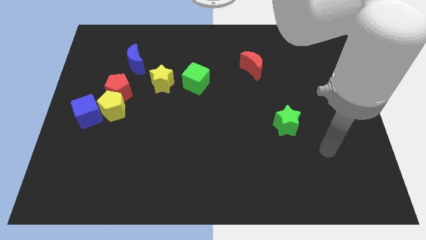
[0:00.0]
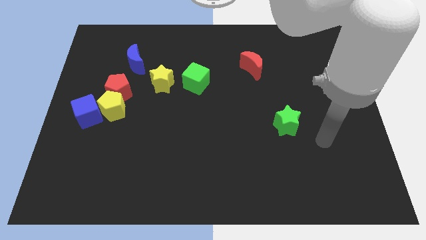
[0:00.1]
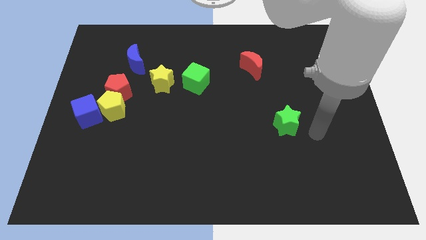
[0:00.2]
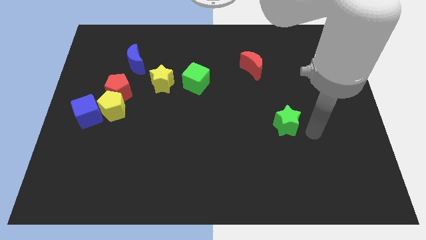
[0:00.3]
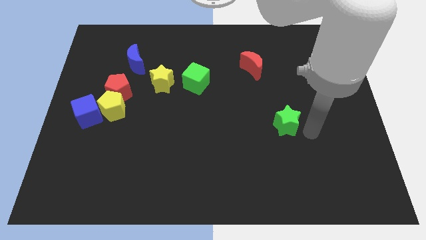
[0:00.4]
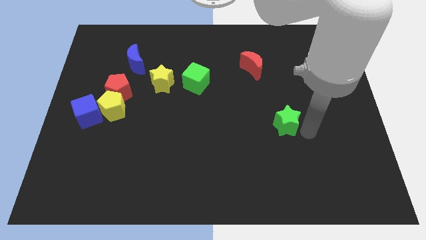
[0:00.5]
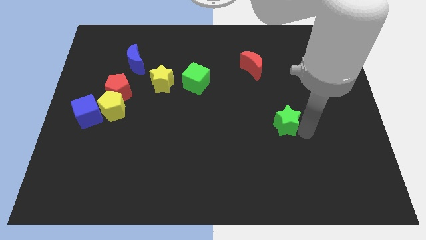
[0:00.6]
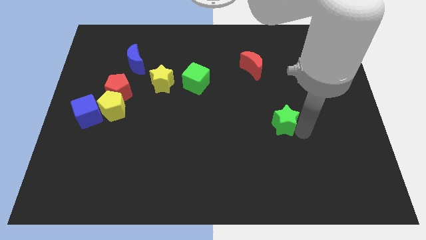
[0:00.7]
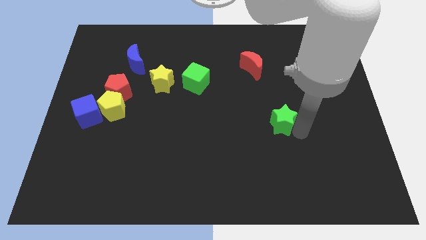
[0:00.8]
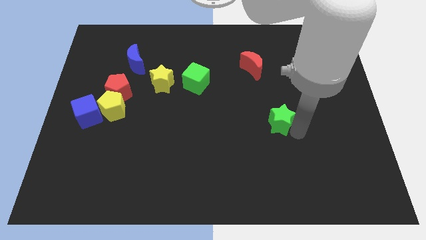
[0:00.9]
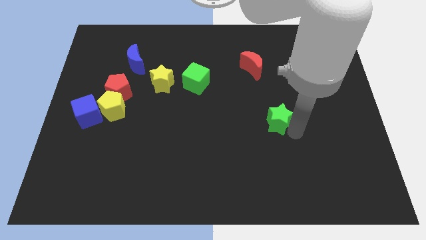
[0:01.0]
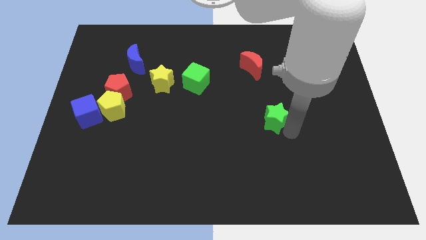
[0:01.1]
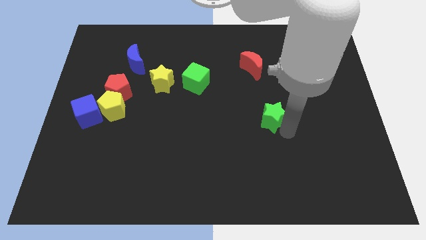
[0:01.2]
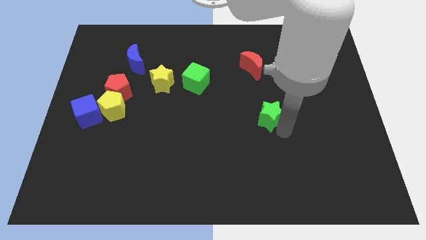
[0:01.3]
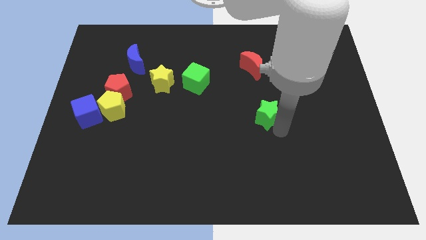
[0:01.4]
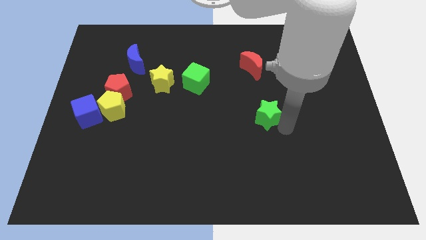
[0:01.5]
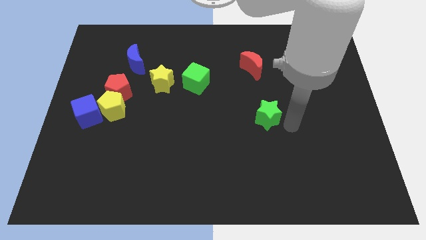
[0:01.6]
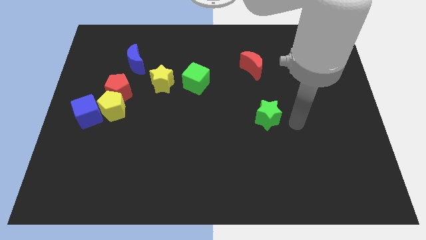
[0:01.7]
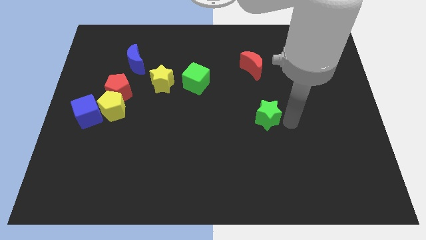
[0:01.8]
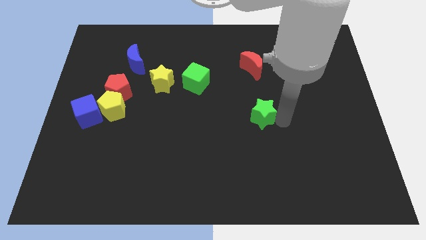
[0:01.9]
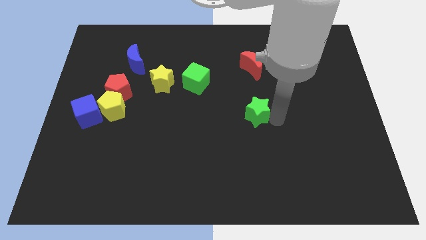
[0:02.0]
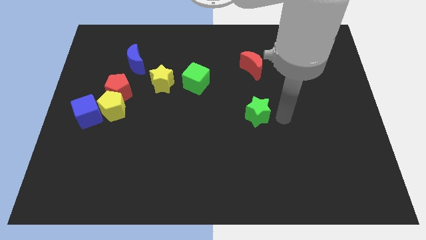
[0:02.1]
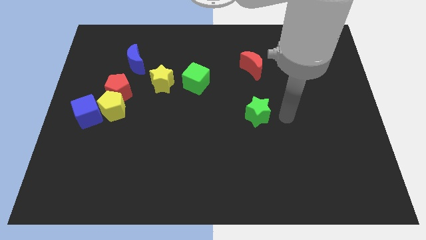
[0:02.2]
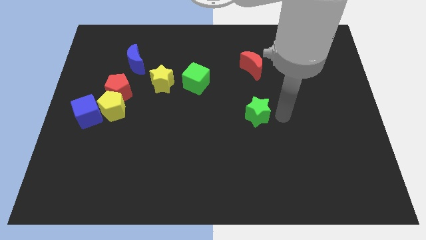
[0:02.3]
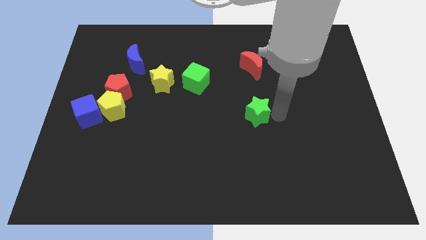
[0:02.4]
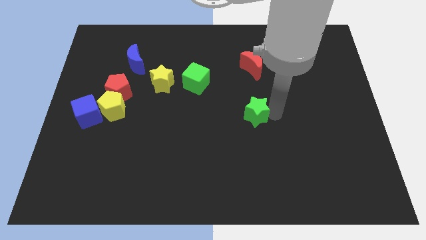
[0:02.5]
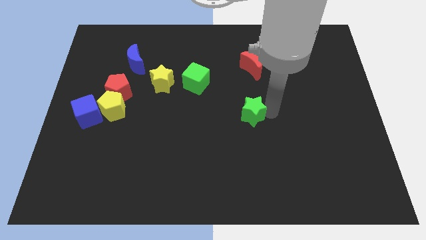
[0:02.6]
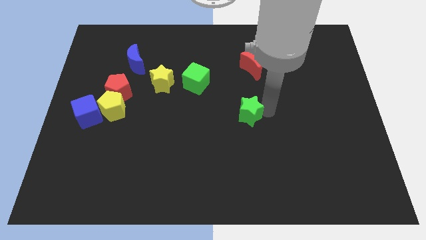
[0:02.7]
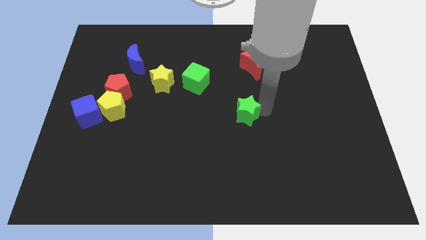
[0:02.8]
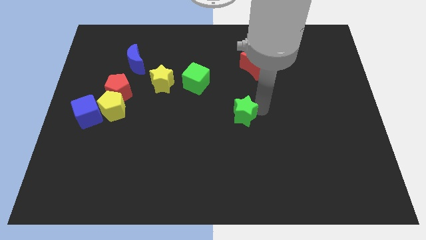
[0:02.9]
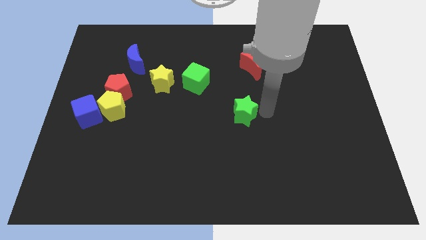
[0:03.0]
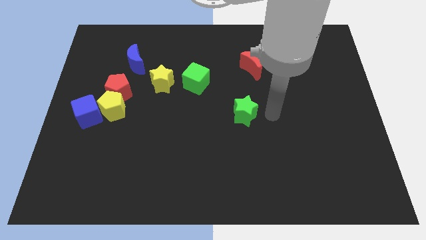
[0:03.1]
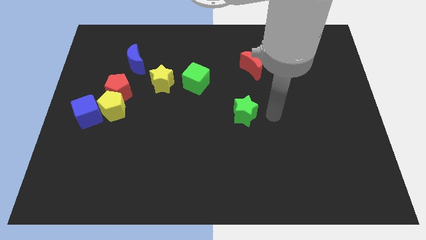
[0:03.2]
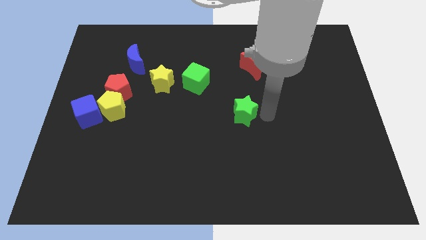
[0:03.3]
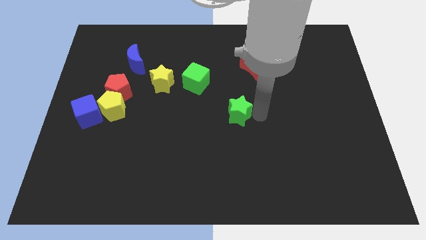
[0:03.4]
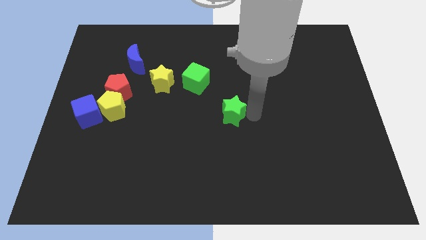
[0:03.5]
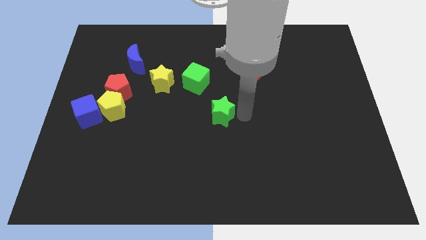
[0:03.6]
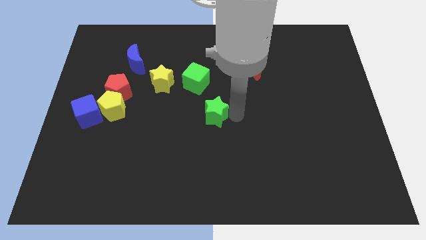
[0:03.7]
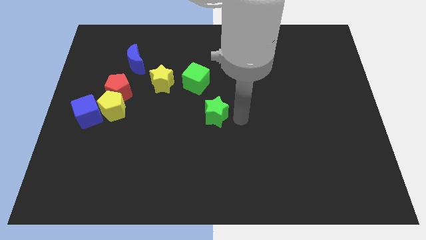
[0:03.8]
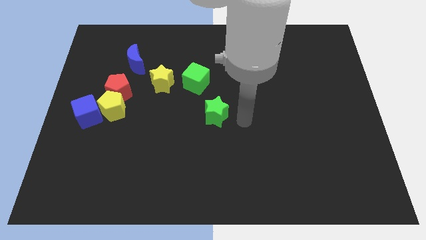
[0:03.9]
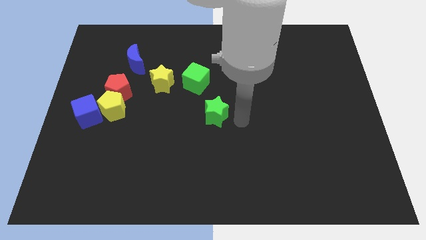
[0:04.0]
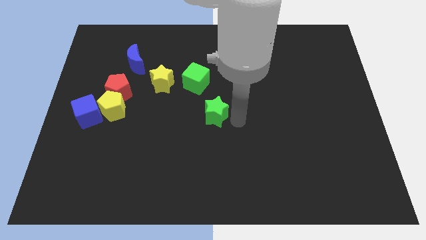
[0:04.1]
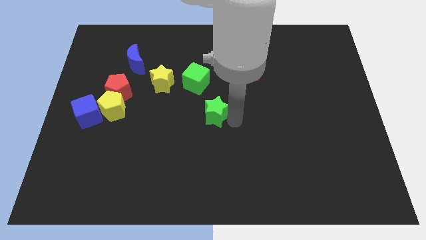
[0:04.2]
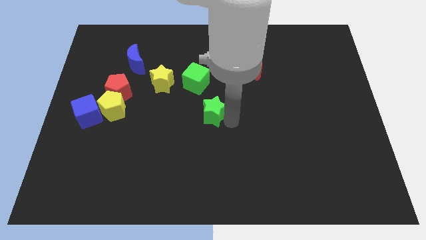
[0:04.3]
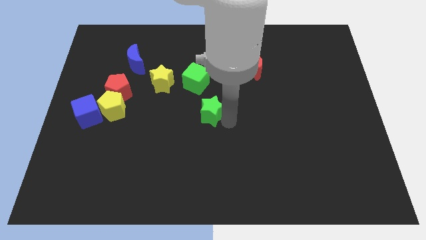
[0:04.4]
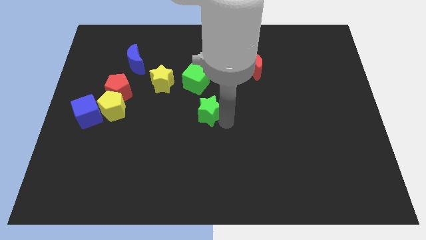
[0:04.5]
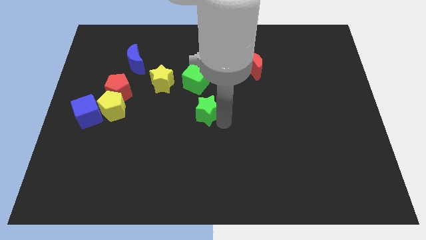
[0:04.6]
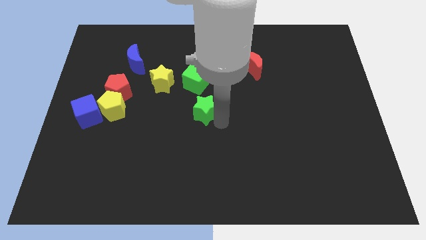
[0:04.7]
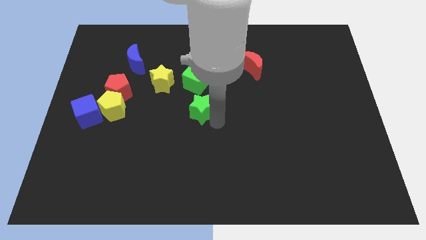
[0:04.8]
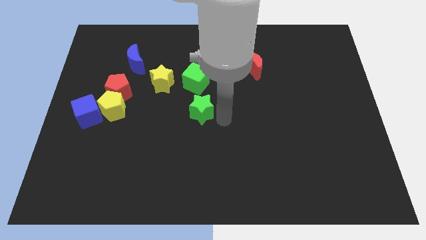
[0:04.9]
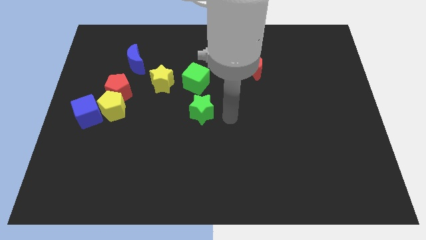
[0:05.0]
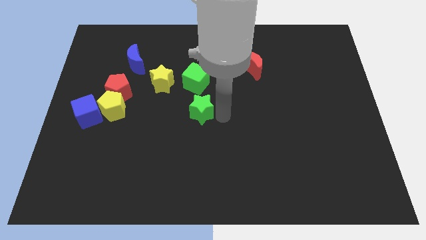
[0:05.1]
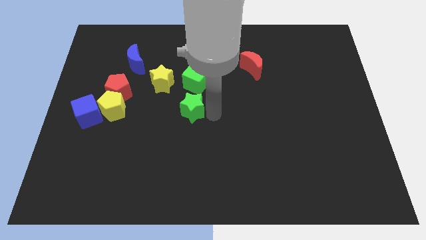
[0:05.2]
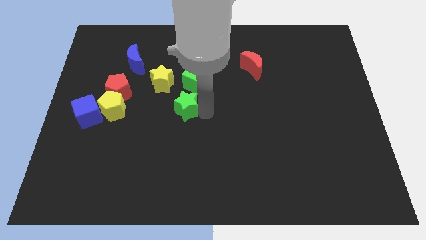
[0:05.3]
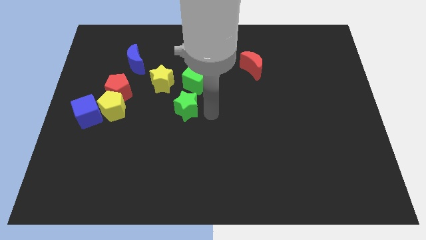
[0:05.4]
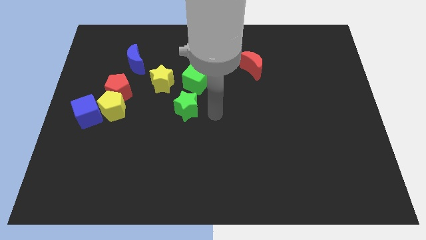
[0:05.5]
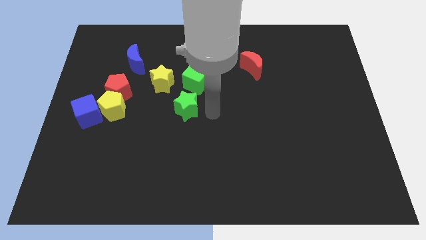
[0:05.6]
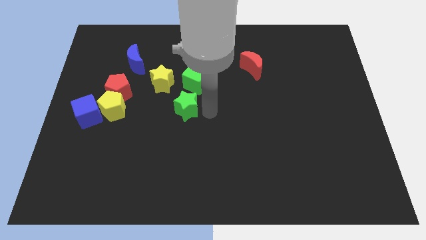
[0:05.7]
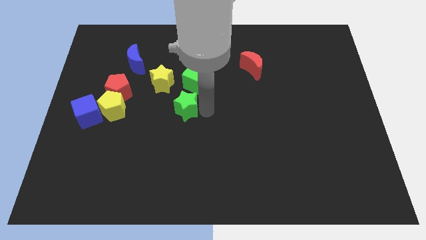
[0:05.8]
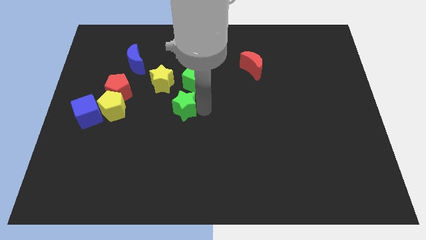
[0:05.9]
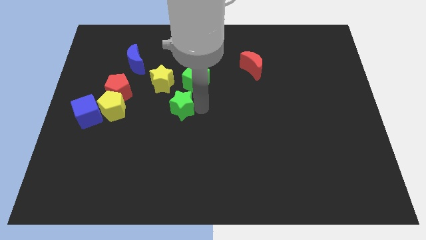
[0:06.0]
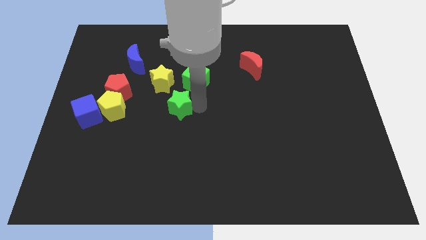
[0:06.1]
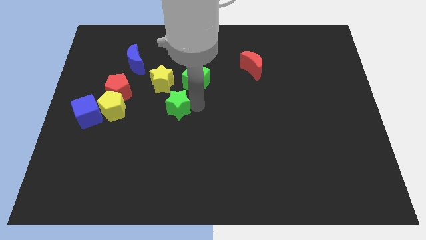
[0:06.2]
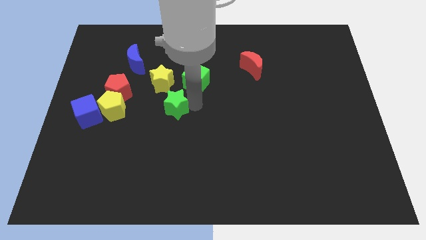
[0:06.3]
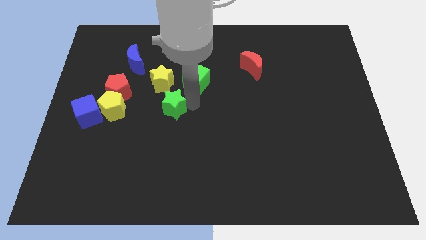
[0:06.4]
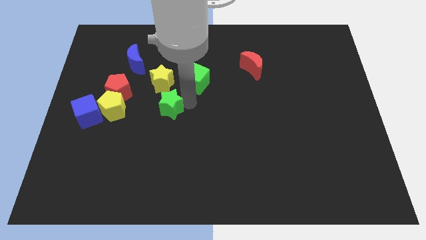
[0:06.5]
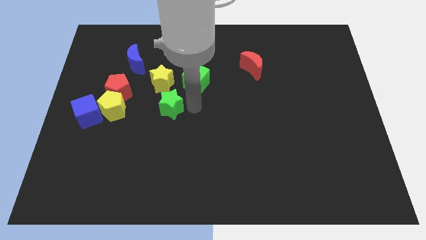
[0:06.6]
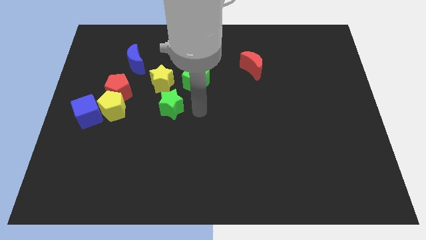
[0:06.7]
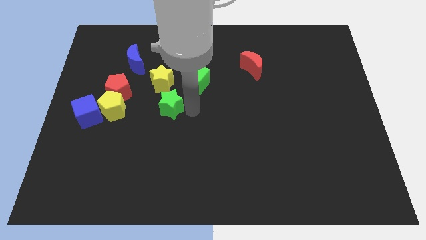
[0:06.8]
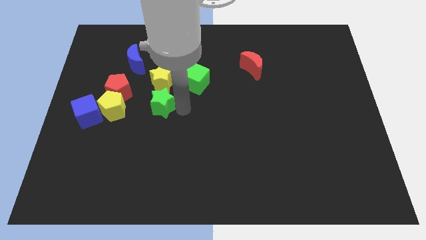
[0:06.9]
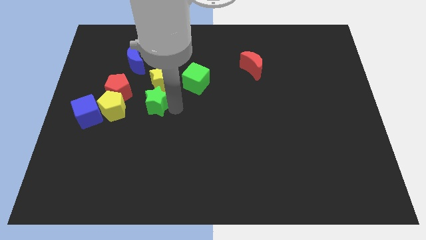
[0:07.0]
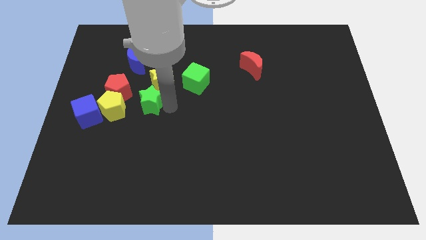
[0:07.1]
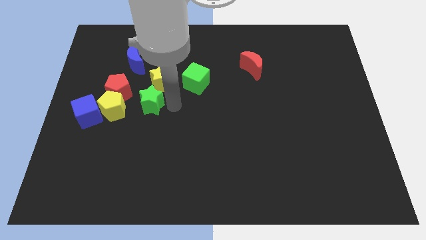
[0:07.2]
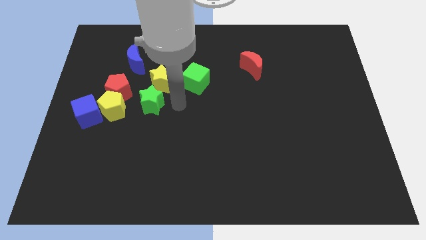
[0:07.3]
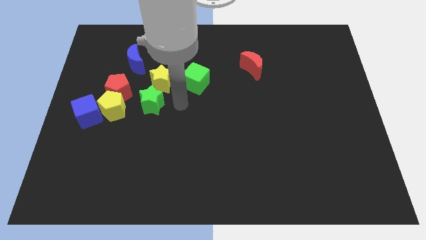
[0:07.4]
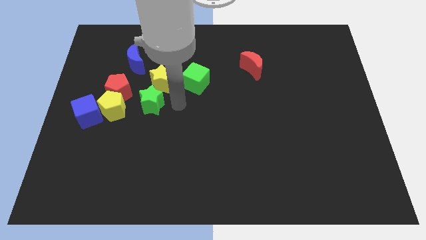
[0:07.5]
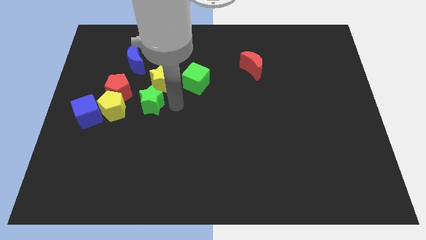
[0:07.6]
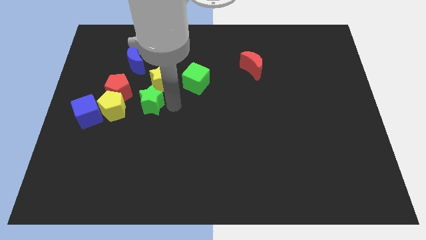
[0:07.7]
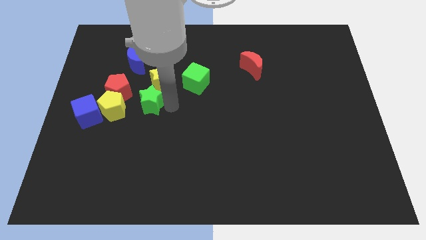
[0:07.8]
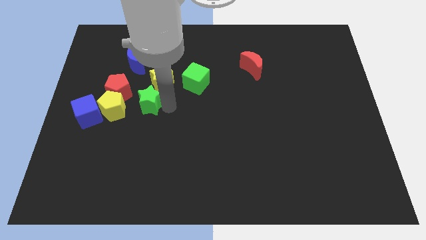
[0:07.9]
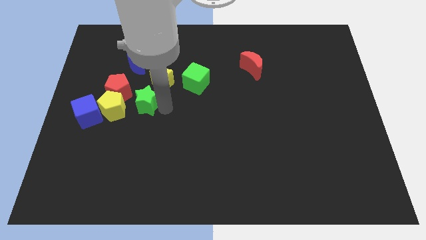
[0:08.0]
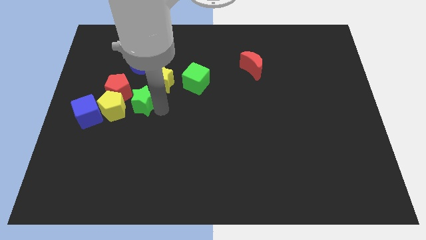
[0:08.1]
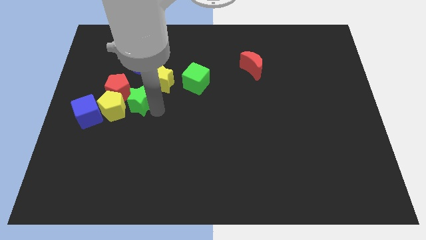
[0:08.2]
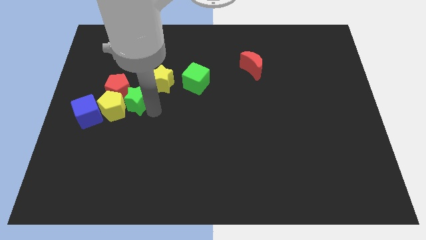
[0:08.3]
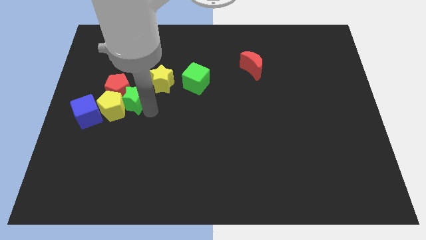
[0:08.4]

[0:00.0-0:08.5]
slide the green star to the red pentagon
